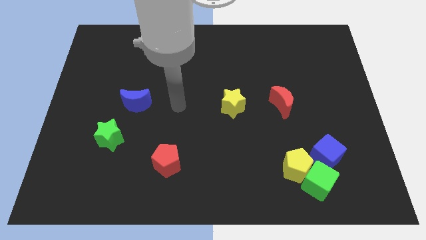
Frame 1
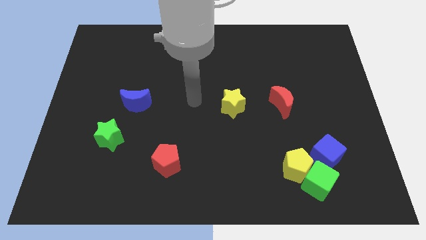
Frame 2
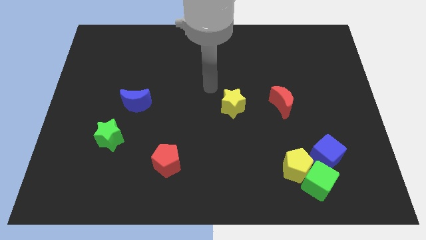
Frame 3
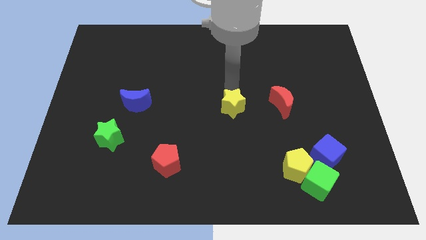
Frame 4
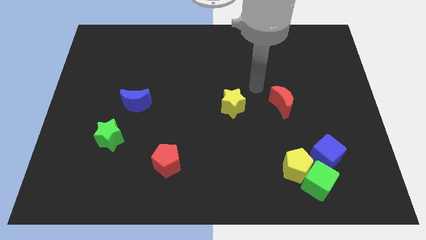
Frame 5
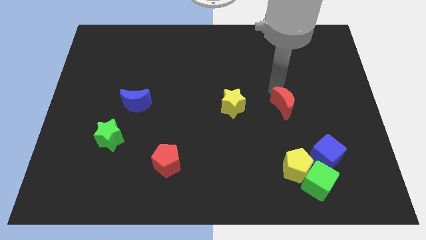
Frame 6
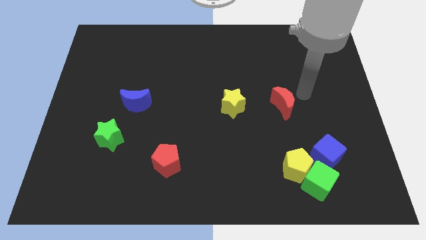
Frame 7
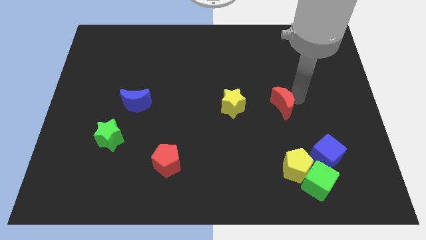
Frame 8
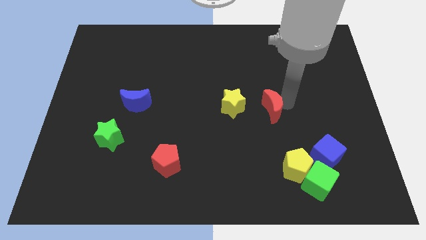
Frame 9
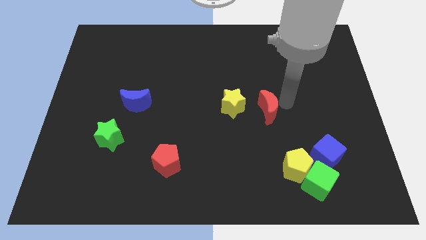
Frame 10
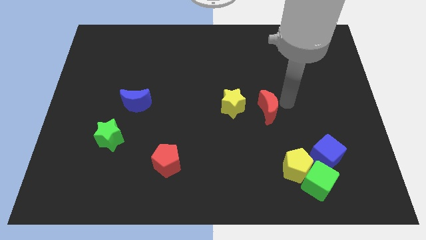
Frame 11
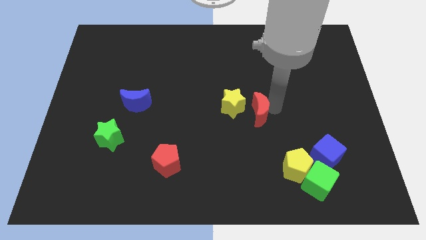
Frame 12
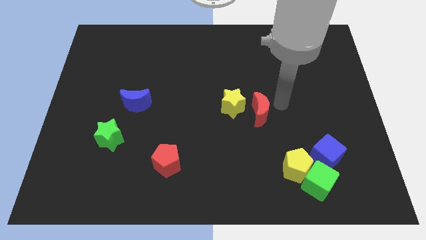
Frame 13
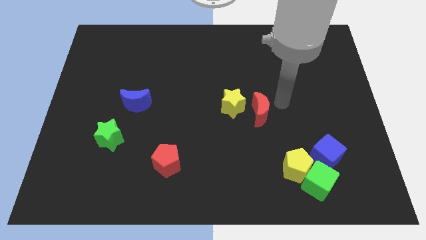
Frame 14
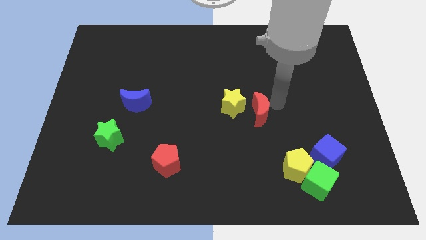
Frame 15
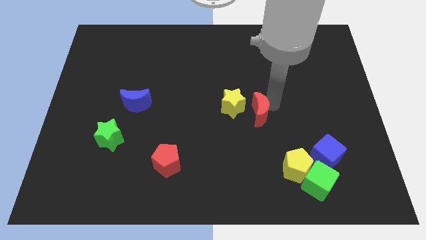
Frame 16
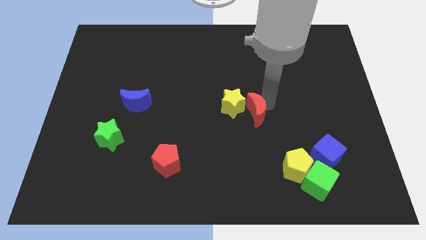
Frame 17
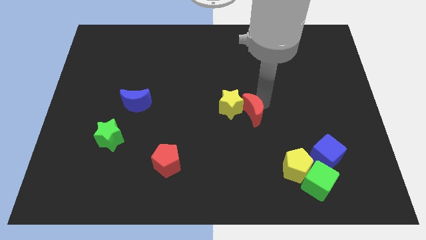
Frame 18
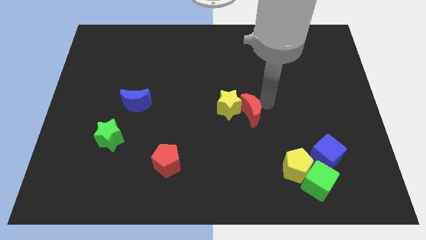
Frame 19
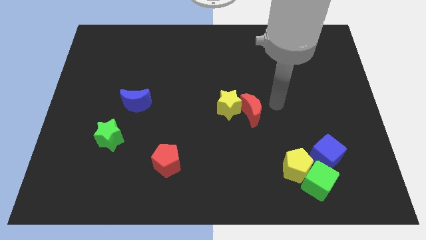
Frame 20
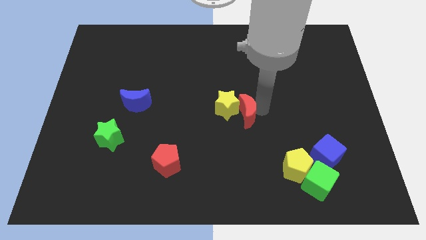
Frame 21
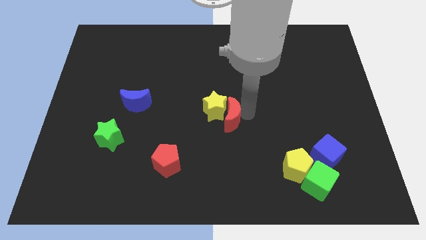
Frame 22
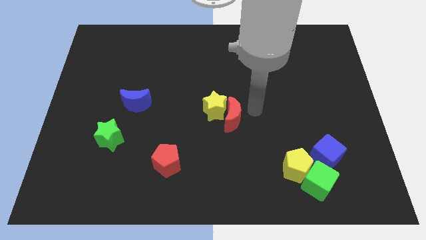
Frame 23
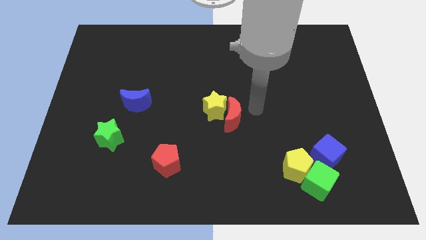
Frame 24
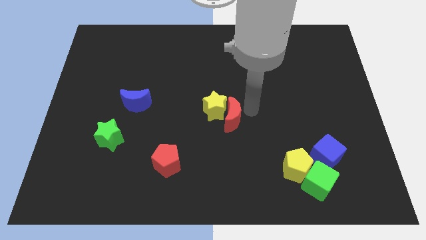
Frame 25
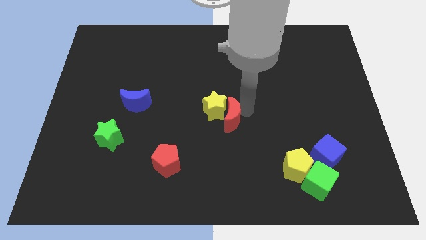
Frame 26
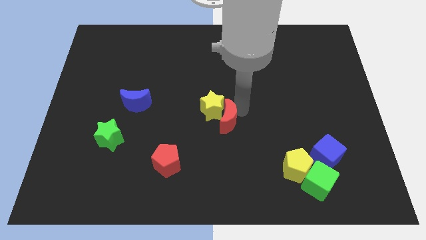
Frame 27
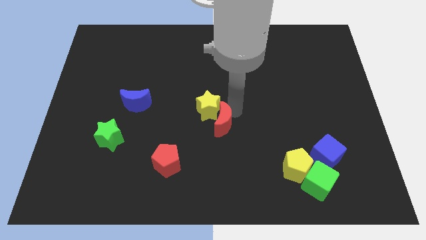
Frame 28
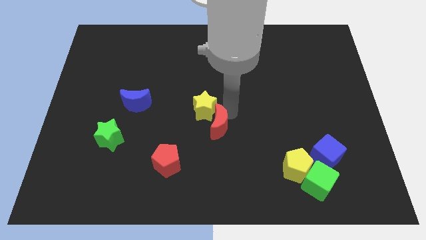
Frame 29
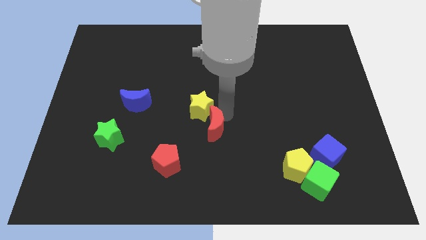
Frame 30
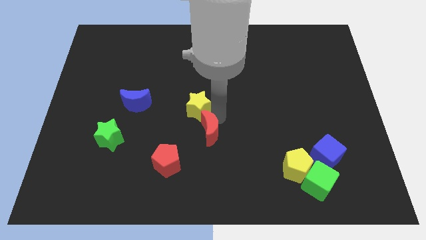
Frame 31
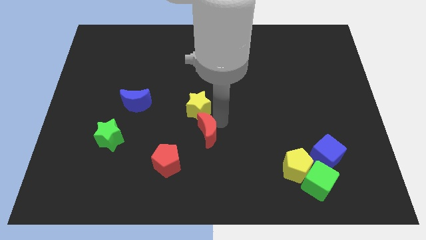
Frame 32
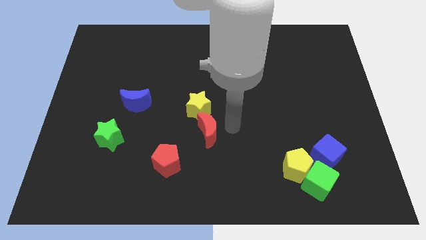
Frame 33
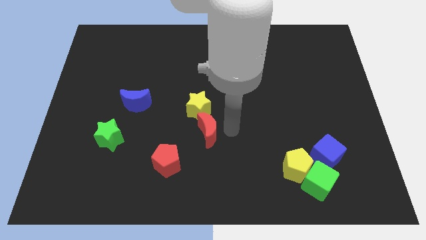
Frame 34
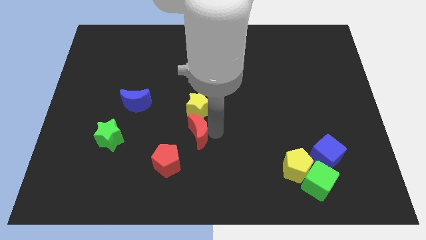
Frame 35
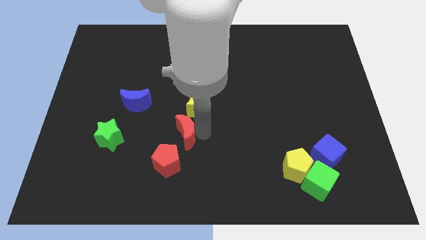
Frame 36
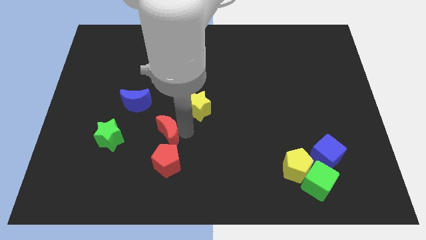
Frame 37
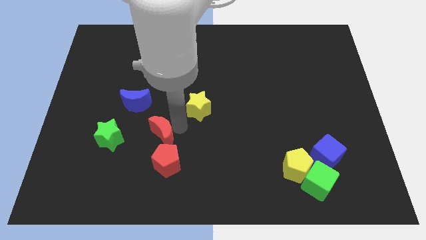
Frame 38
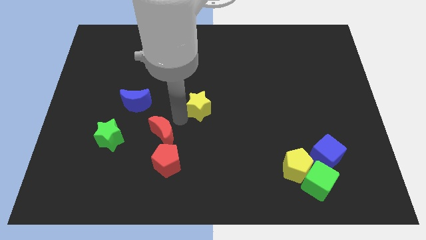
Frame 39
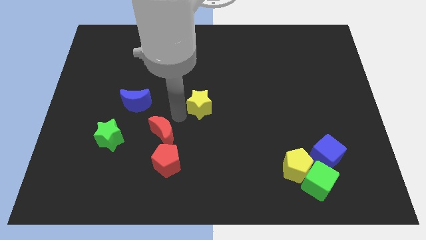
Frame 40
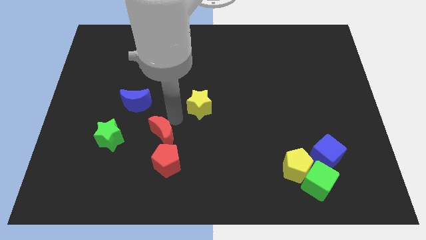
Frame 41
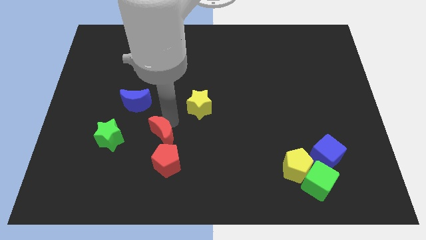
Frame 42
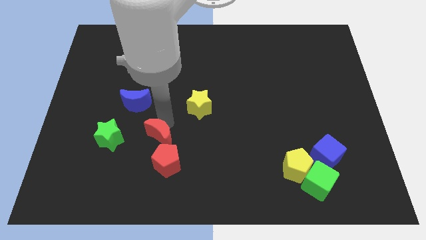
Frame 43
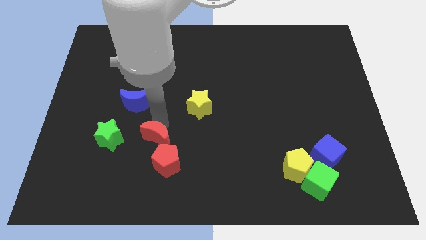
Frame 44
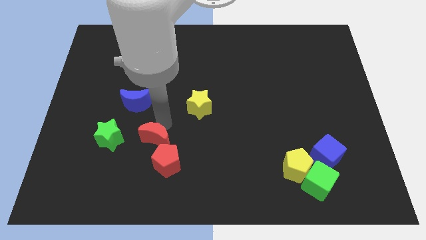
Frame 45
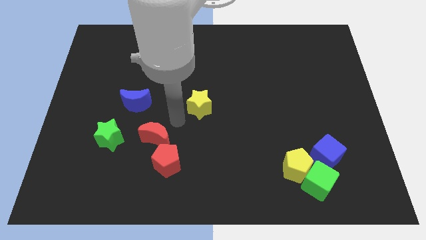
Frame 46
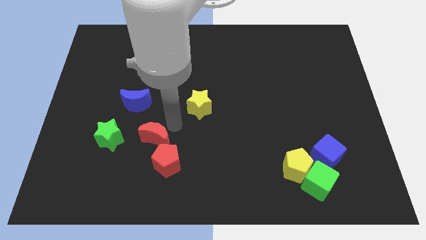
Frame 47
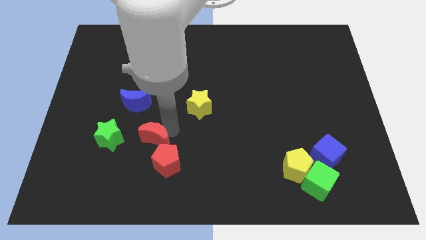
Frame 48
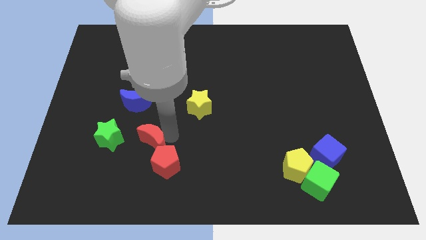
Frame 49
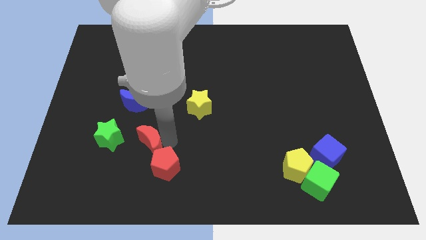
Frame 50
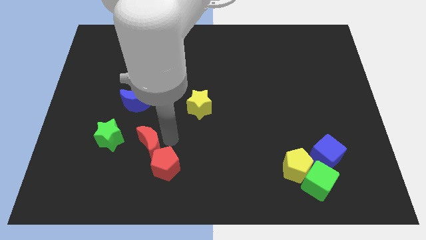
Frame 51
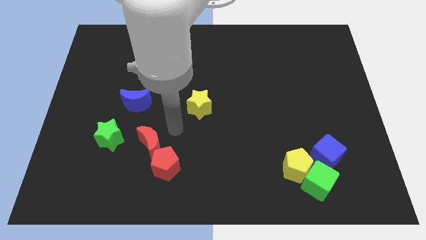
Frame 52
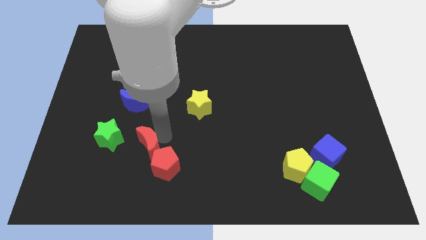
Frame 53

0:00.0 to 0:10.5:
slide the red moon to the bottom right of the green star

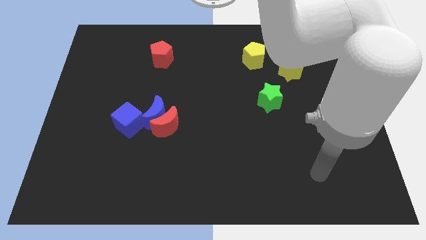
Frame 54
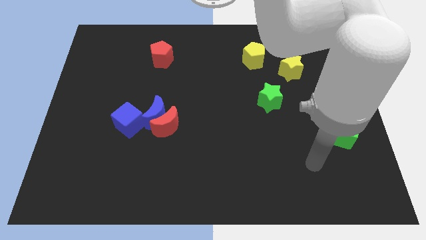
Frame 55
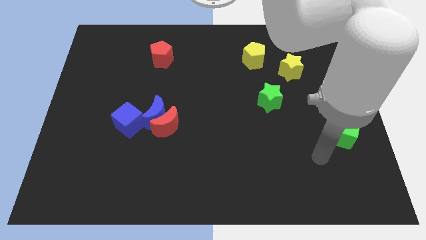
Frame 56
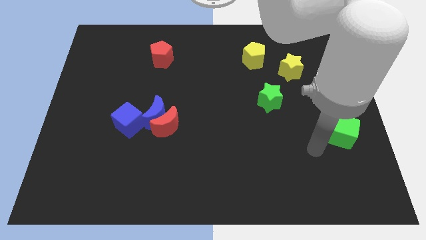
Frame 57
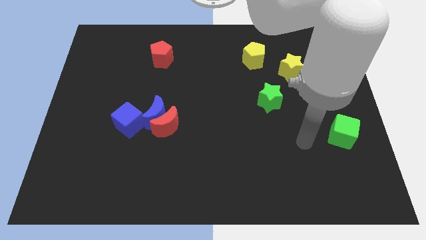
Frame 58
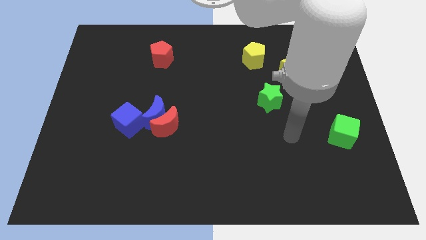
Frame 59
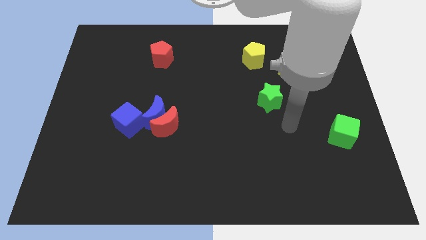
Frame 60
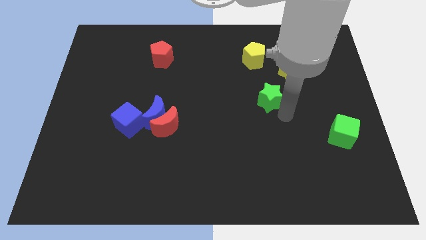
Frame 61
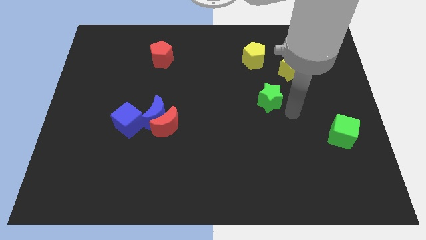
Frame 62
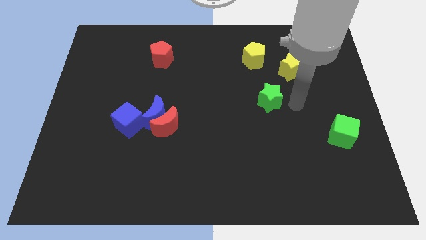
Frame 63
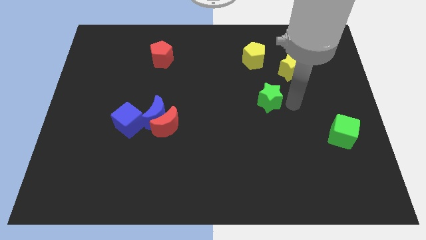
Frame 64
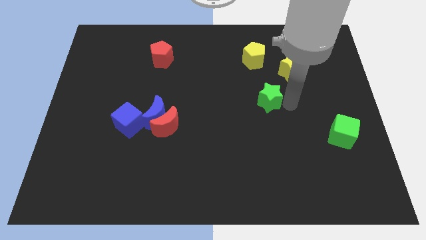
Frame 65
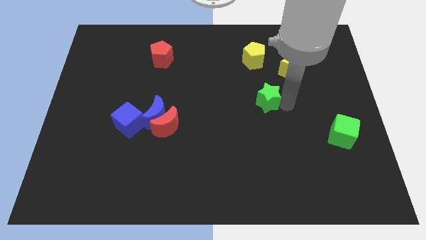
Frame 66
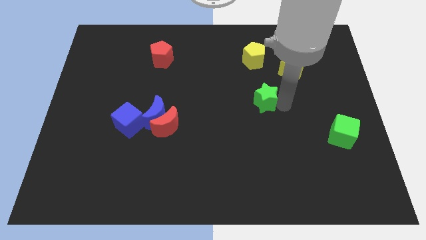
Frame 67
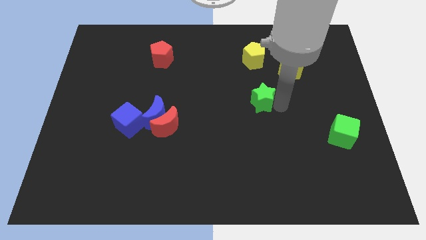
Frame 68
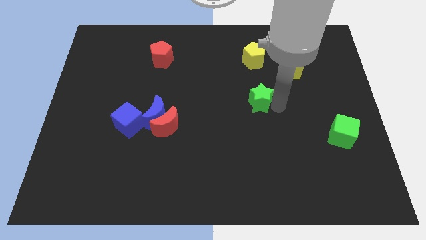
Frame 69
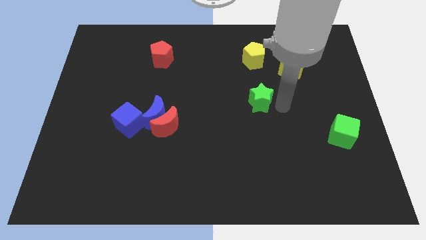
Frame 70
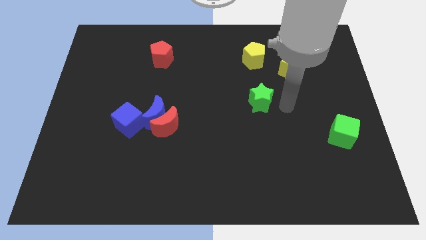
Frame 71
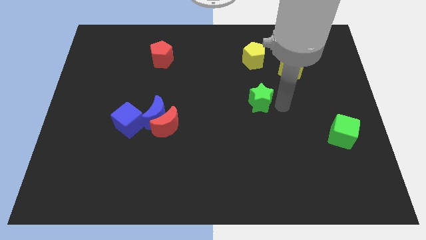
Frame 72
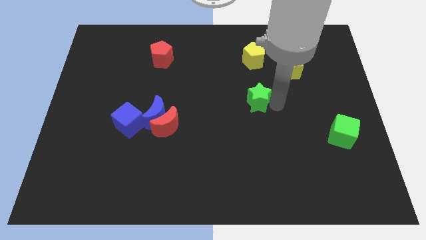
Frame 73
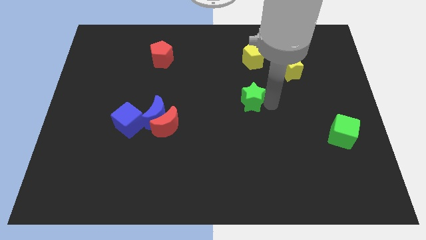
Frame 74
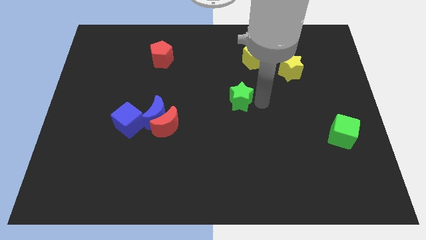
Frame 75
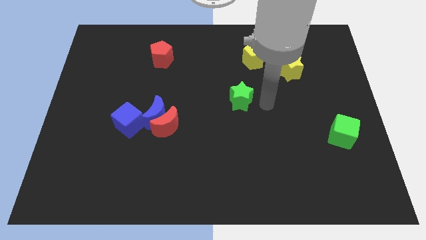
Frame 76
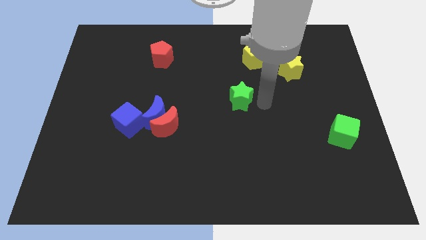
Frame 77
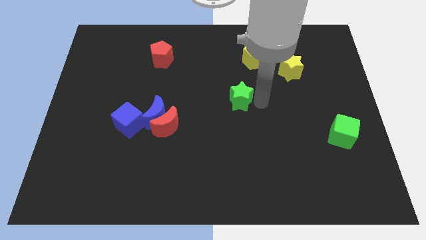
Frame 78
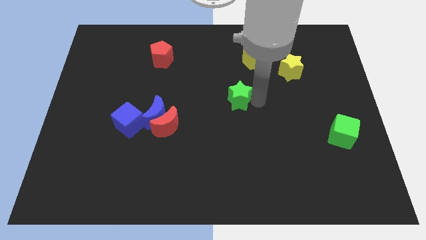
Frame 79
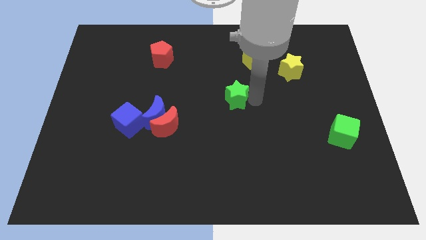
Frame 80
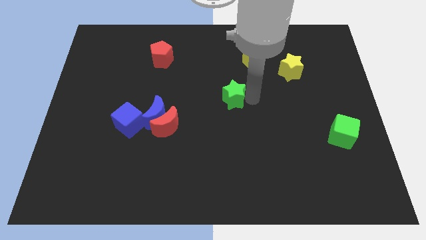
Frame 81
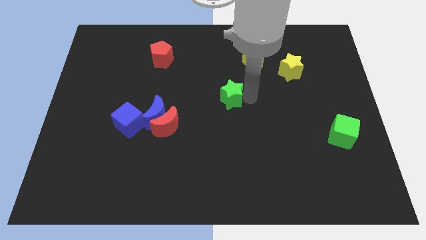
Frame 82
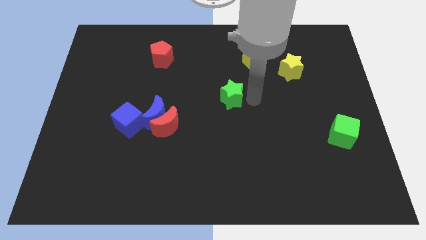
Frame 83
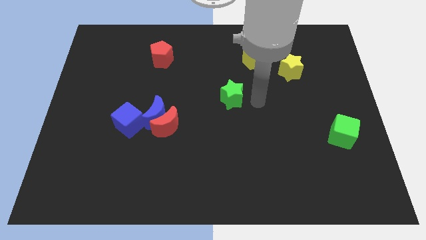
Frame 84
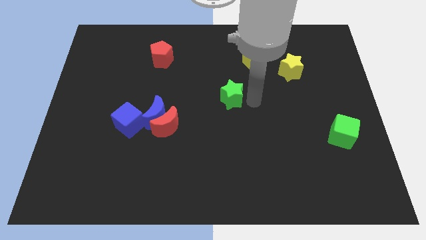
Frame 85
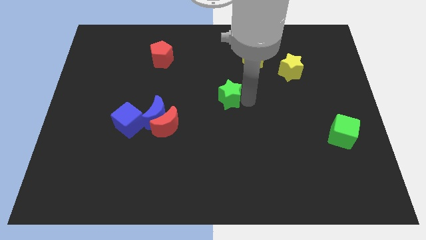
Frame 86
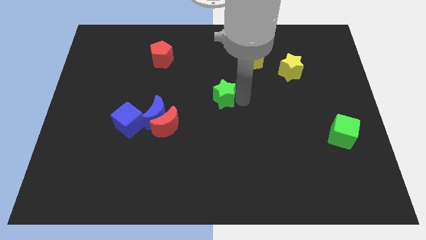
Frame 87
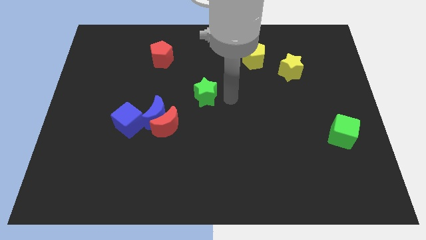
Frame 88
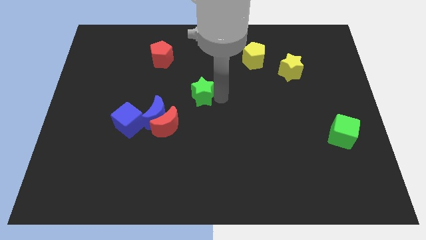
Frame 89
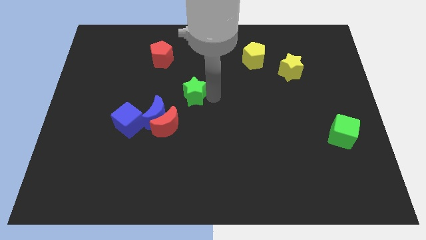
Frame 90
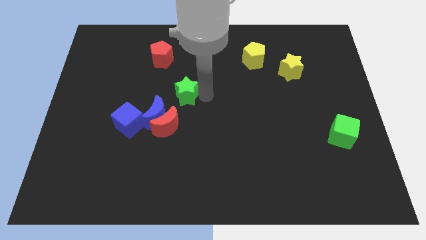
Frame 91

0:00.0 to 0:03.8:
move the green star above the red moon
